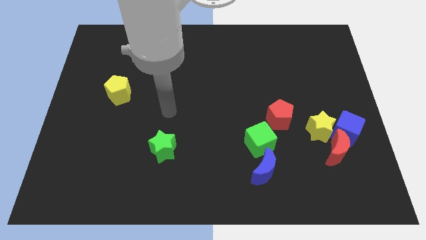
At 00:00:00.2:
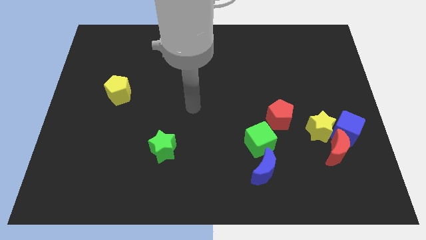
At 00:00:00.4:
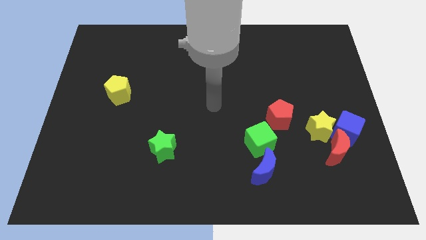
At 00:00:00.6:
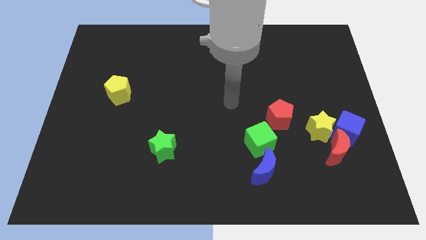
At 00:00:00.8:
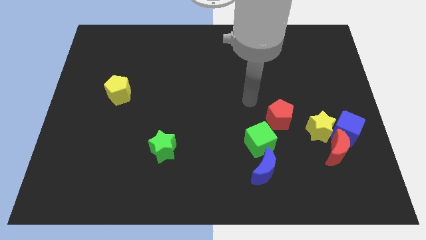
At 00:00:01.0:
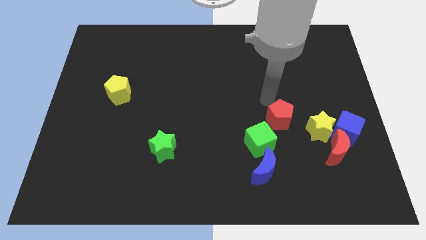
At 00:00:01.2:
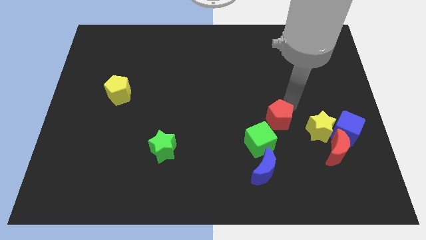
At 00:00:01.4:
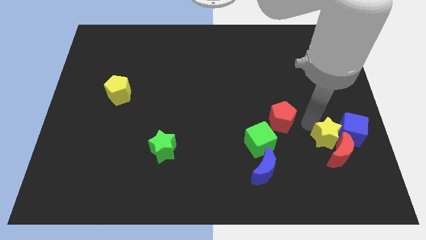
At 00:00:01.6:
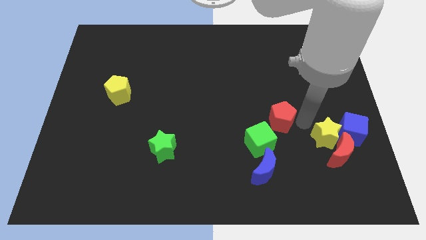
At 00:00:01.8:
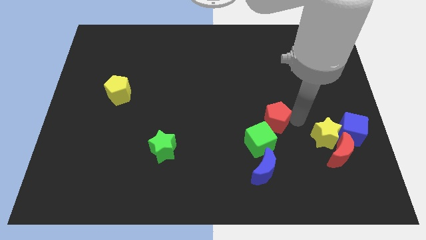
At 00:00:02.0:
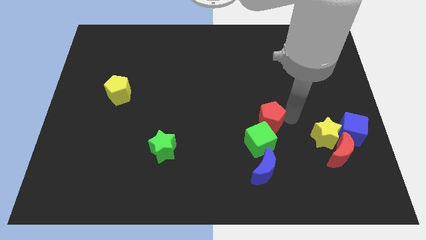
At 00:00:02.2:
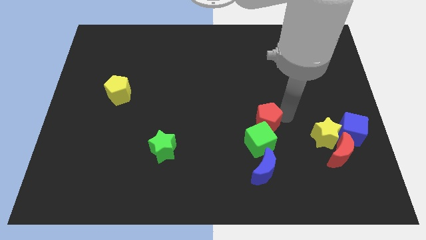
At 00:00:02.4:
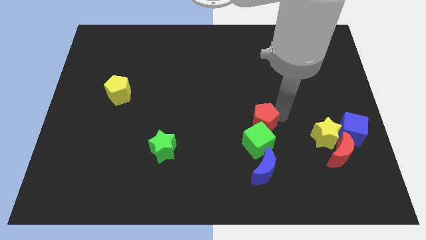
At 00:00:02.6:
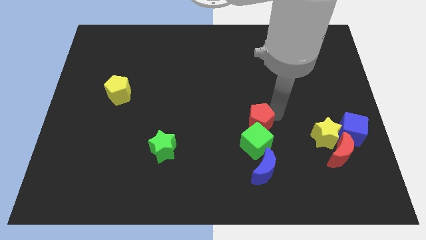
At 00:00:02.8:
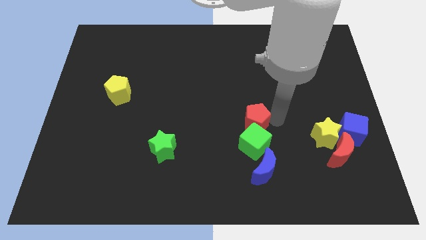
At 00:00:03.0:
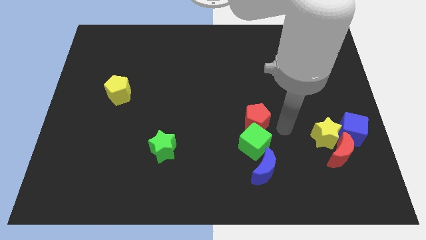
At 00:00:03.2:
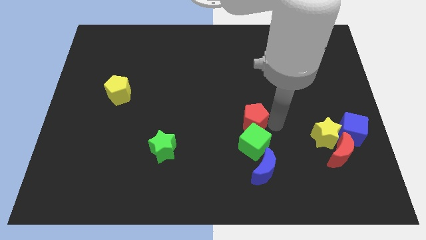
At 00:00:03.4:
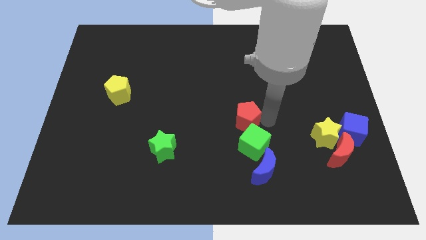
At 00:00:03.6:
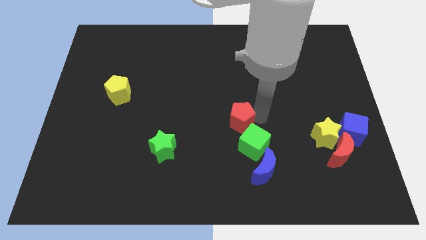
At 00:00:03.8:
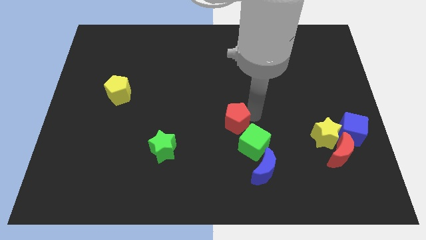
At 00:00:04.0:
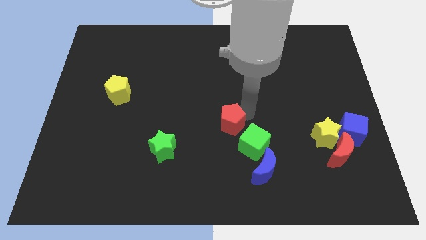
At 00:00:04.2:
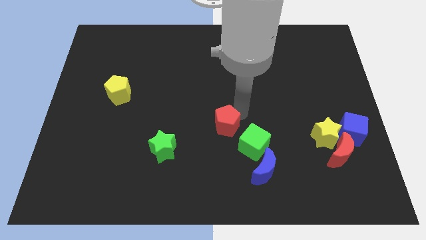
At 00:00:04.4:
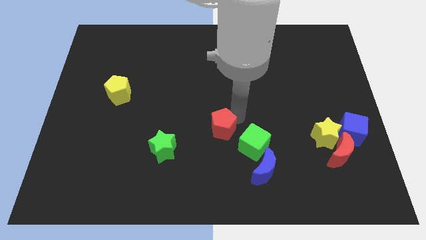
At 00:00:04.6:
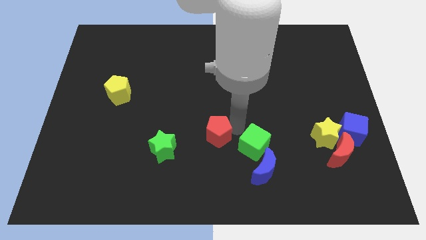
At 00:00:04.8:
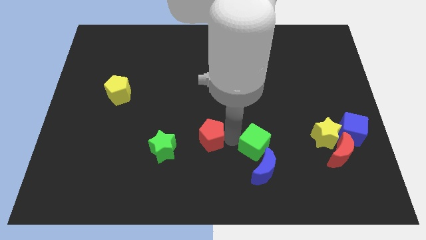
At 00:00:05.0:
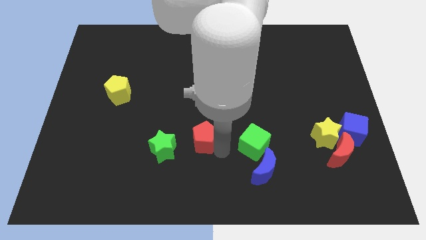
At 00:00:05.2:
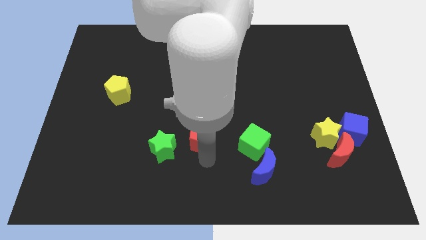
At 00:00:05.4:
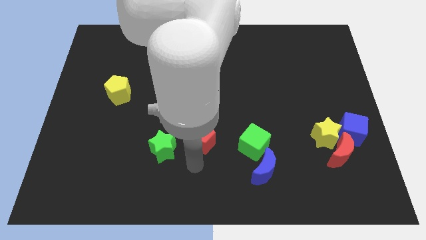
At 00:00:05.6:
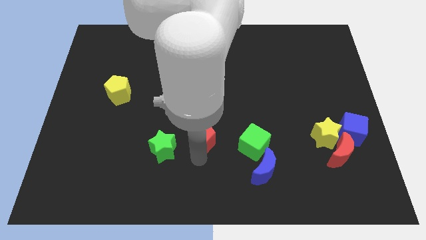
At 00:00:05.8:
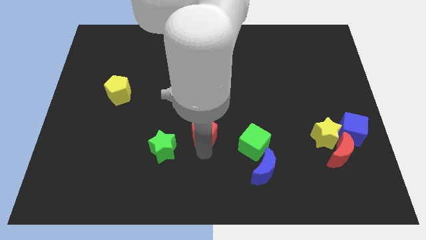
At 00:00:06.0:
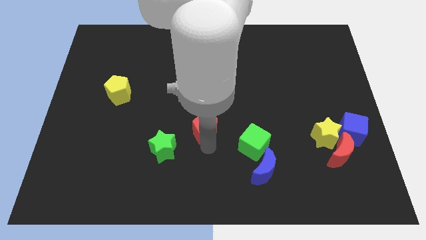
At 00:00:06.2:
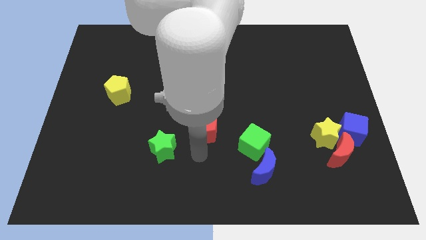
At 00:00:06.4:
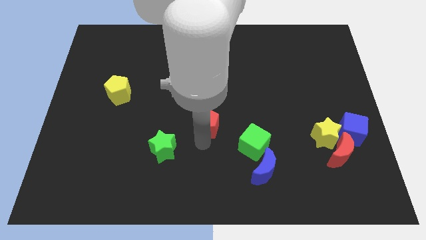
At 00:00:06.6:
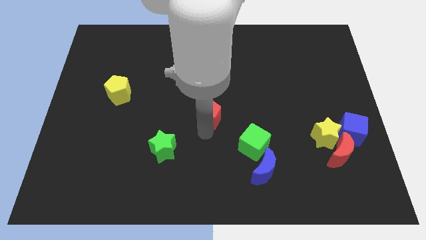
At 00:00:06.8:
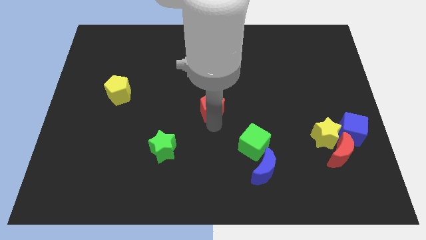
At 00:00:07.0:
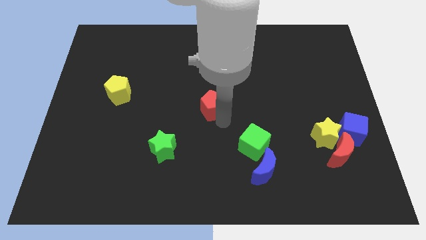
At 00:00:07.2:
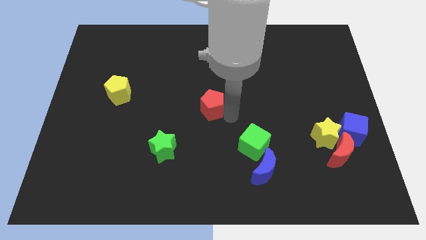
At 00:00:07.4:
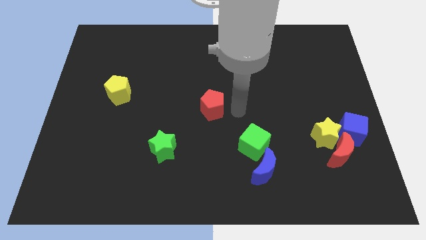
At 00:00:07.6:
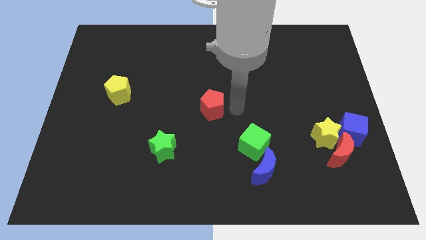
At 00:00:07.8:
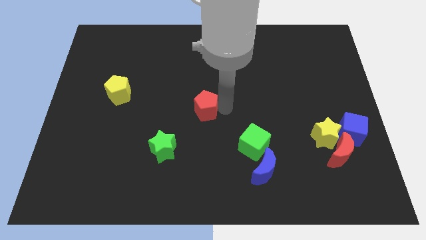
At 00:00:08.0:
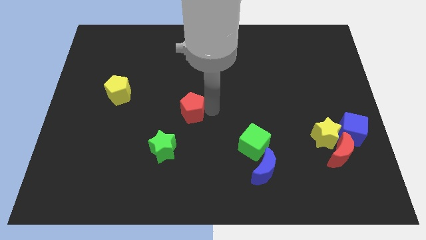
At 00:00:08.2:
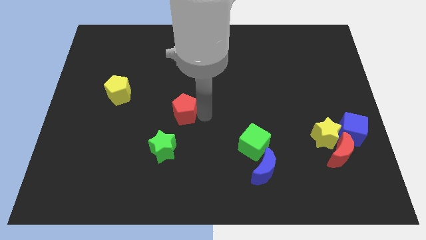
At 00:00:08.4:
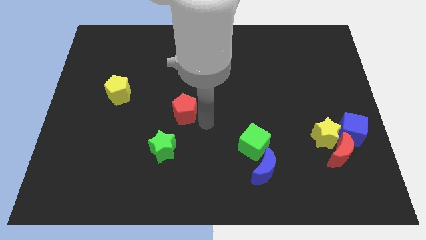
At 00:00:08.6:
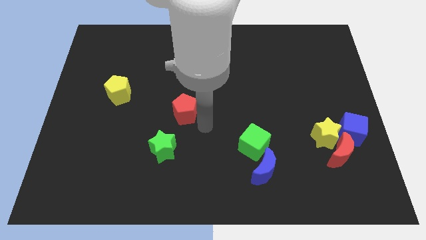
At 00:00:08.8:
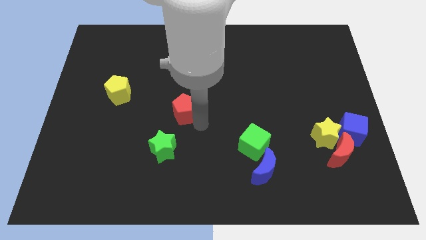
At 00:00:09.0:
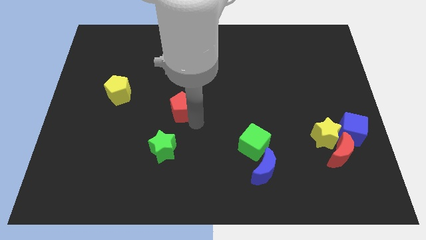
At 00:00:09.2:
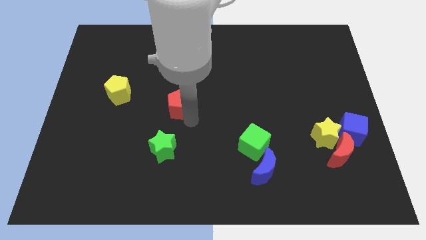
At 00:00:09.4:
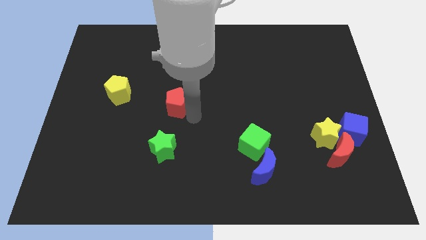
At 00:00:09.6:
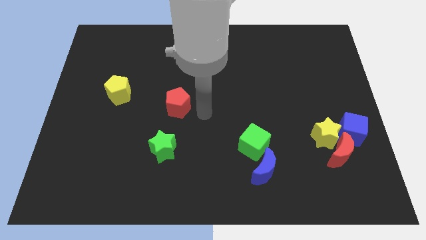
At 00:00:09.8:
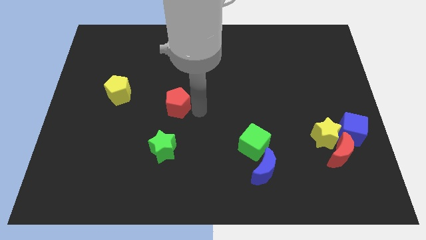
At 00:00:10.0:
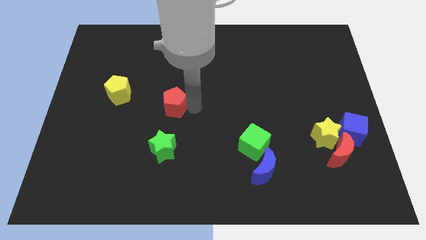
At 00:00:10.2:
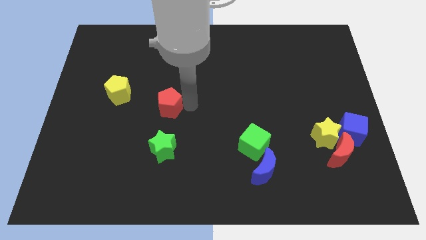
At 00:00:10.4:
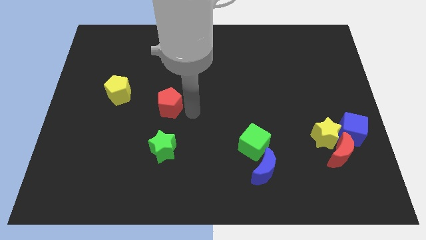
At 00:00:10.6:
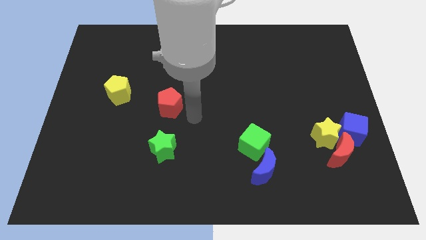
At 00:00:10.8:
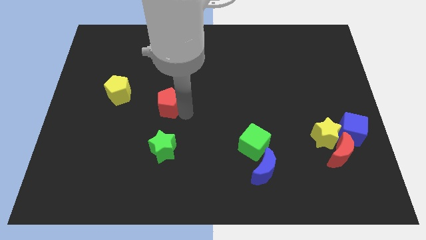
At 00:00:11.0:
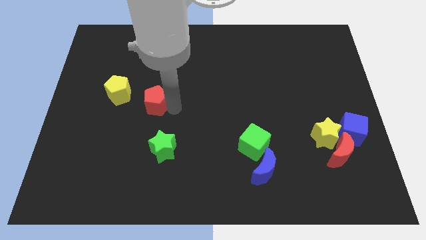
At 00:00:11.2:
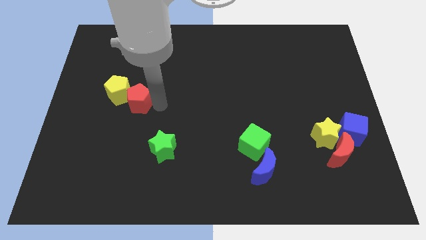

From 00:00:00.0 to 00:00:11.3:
push the red pentagon to the yellow pentagon

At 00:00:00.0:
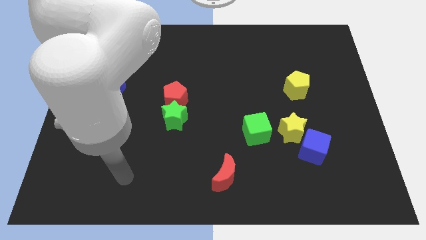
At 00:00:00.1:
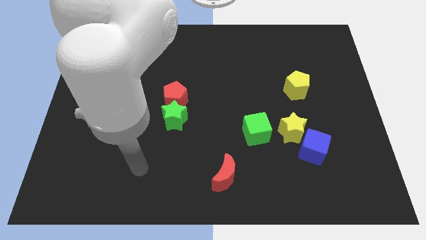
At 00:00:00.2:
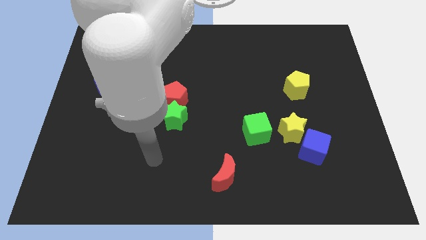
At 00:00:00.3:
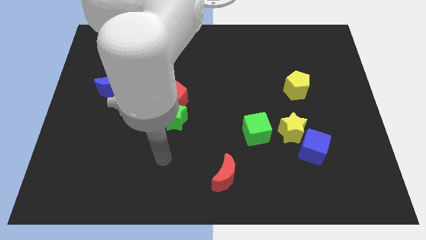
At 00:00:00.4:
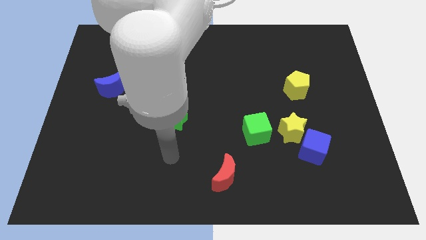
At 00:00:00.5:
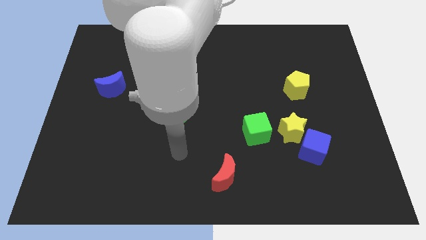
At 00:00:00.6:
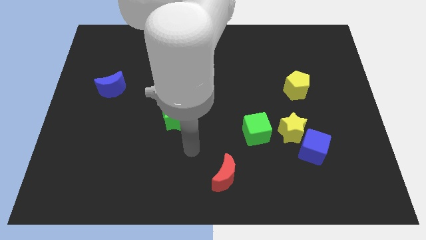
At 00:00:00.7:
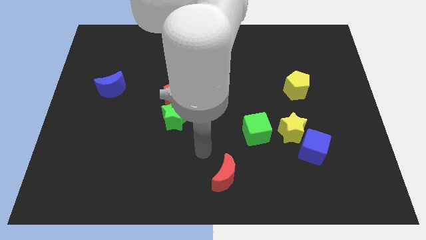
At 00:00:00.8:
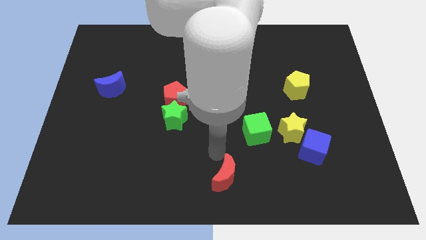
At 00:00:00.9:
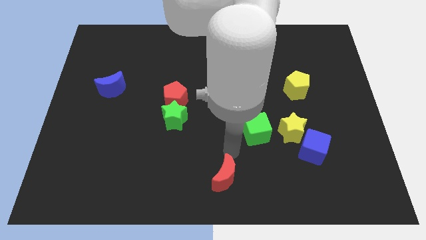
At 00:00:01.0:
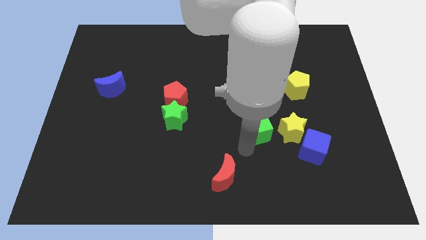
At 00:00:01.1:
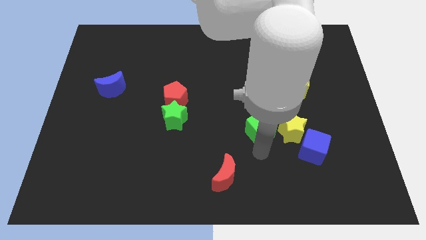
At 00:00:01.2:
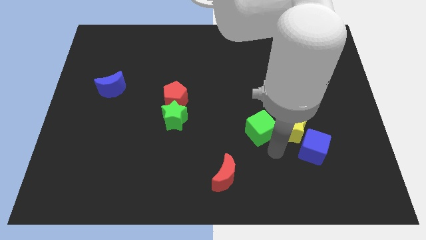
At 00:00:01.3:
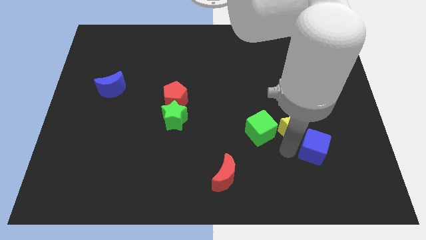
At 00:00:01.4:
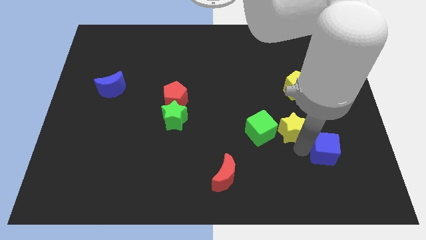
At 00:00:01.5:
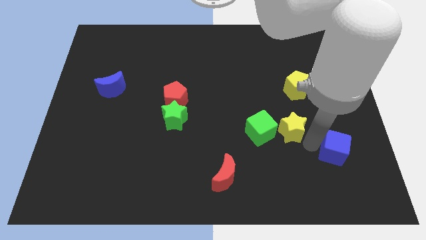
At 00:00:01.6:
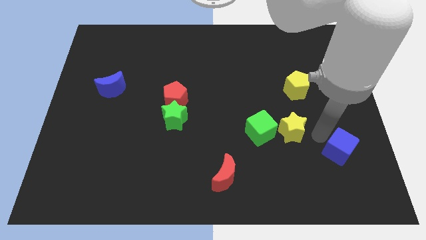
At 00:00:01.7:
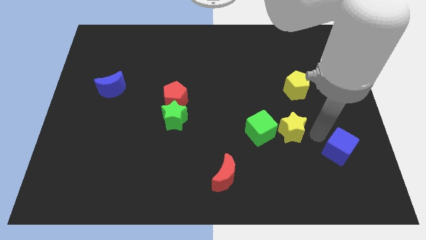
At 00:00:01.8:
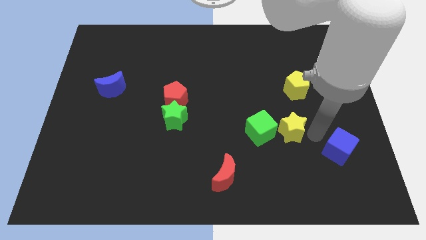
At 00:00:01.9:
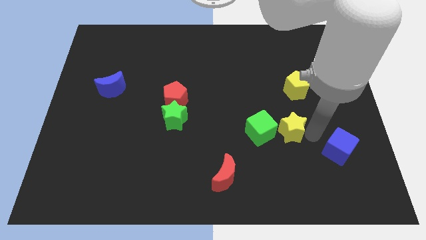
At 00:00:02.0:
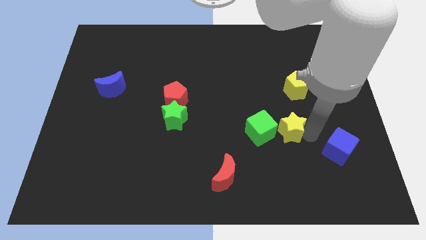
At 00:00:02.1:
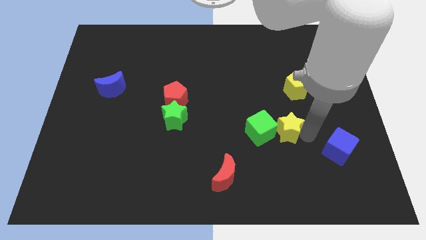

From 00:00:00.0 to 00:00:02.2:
put the yellow star next to the green cube

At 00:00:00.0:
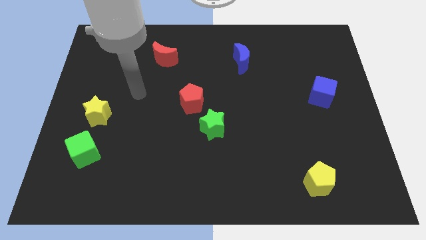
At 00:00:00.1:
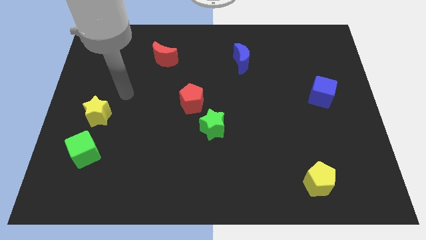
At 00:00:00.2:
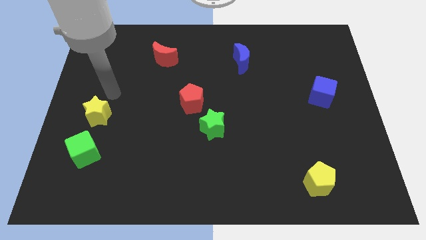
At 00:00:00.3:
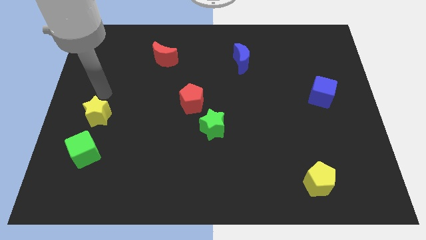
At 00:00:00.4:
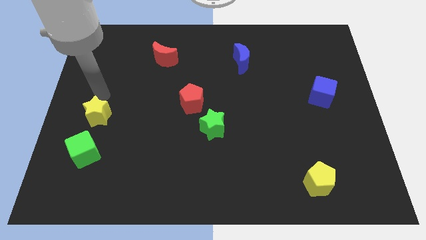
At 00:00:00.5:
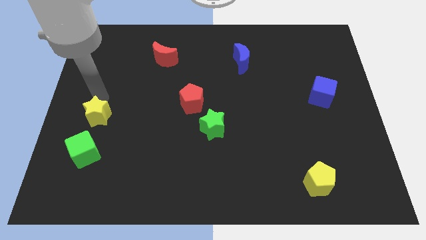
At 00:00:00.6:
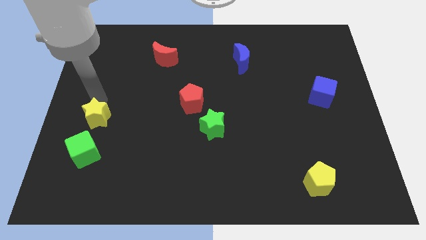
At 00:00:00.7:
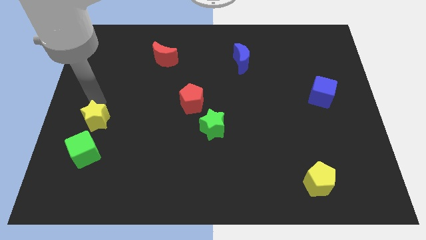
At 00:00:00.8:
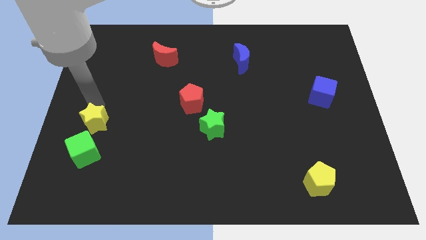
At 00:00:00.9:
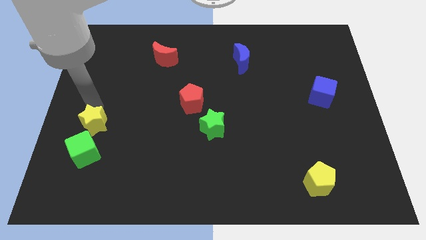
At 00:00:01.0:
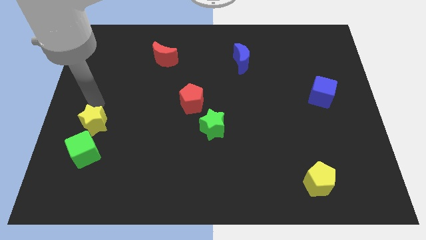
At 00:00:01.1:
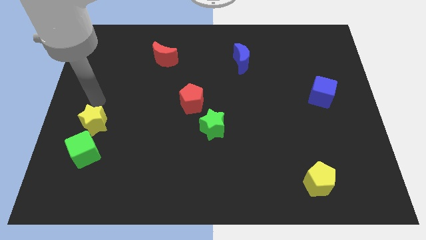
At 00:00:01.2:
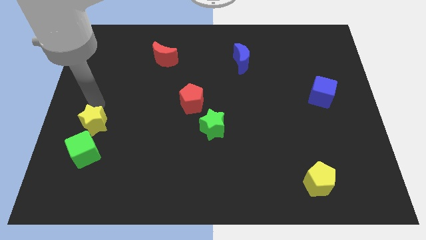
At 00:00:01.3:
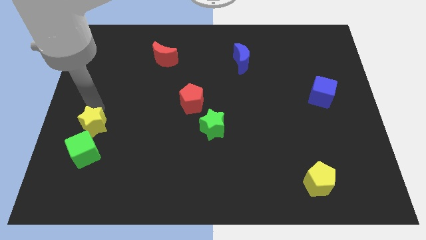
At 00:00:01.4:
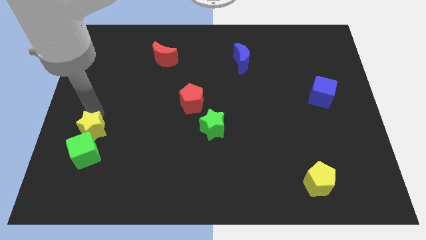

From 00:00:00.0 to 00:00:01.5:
slide the yellow star to the green cube
